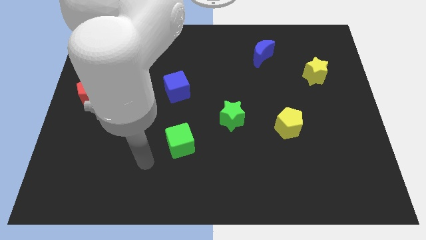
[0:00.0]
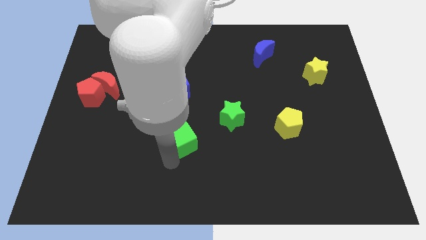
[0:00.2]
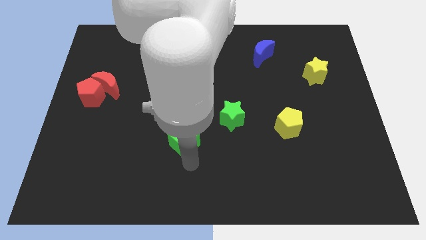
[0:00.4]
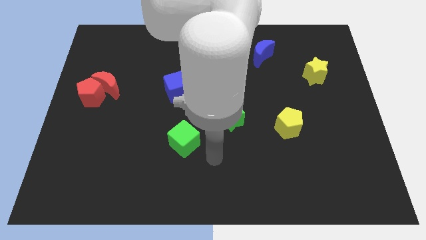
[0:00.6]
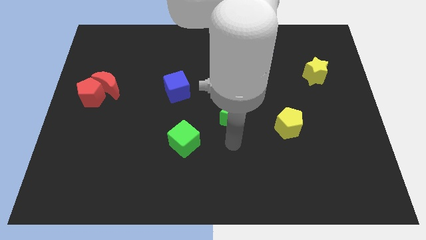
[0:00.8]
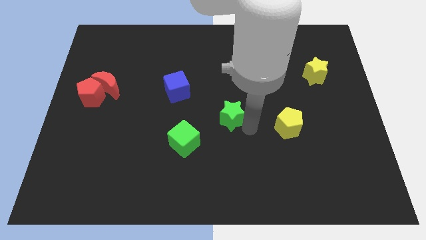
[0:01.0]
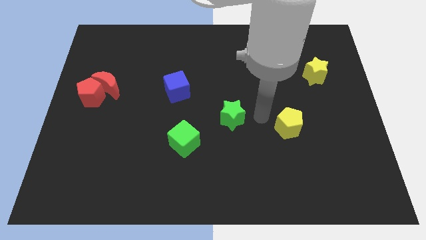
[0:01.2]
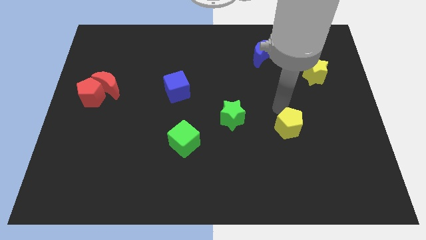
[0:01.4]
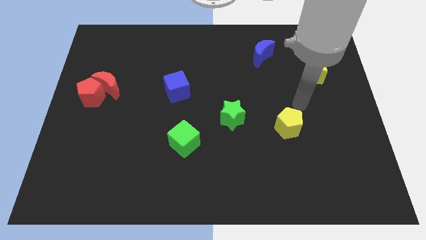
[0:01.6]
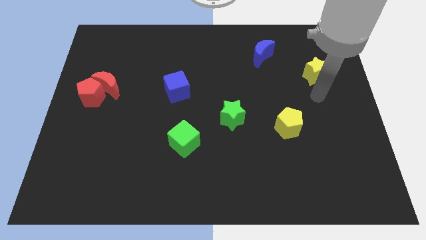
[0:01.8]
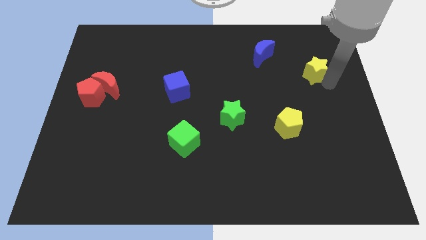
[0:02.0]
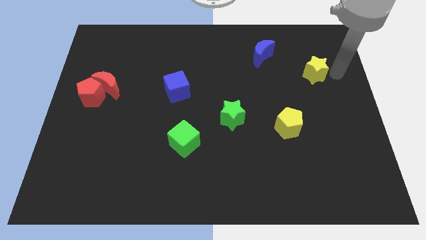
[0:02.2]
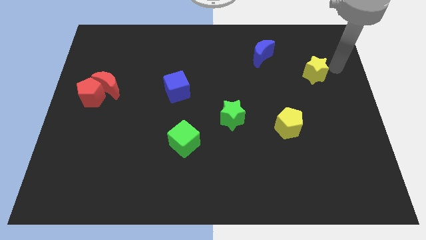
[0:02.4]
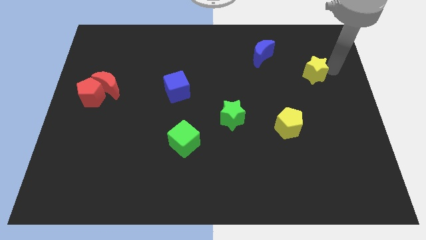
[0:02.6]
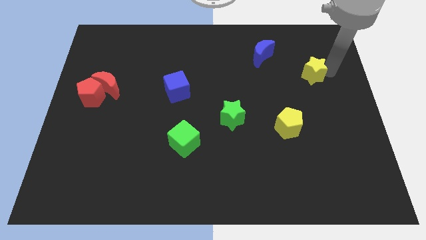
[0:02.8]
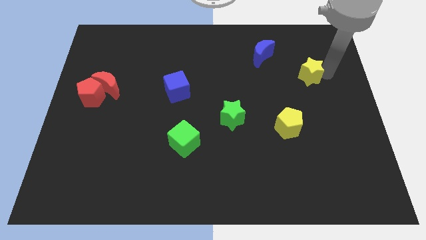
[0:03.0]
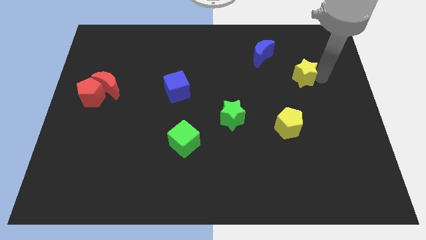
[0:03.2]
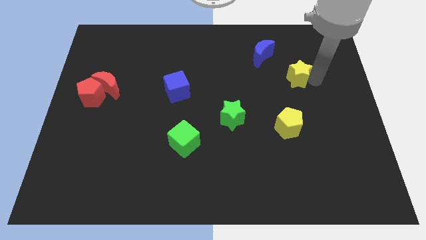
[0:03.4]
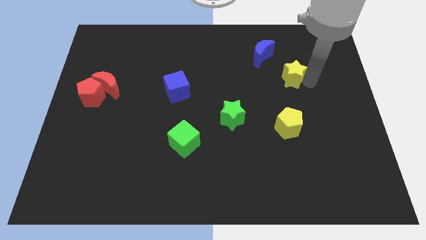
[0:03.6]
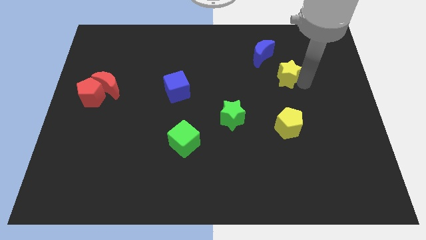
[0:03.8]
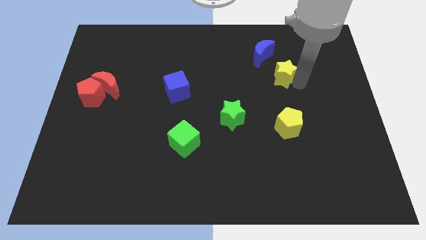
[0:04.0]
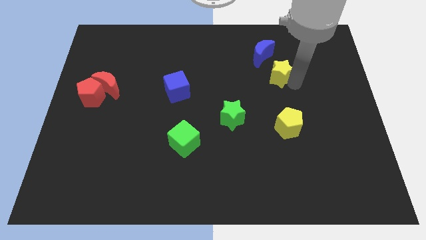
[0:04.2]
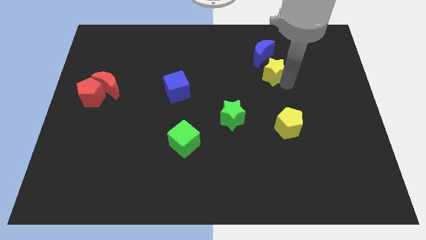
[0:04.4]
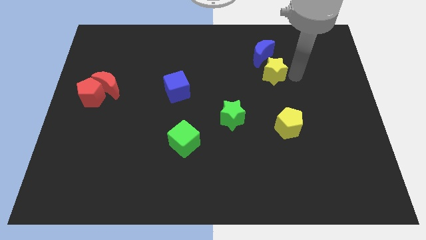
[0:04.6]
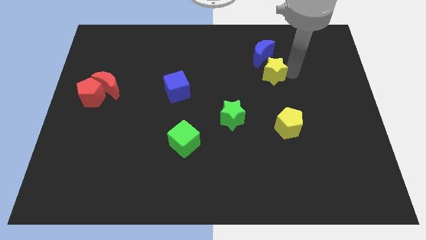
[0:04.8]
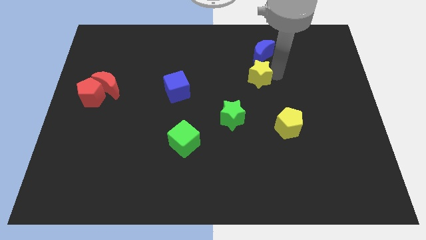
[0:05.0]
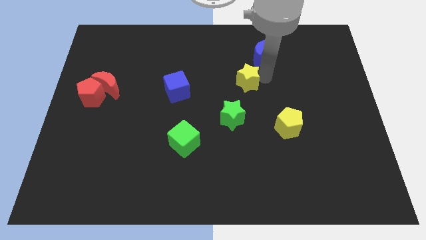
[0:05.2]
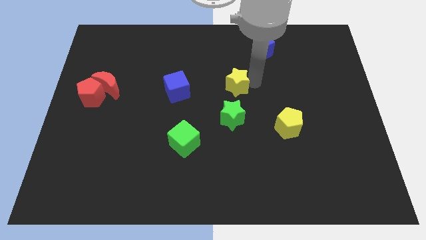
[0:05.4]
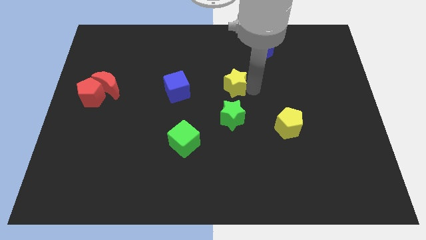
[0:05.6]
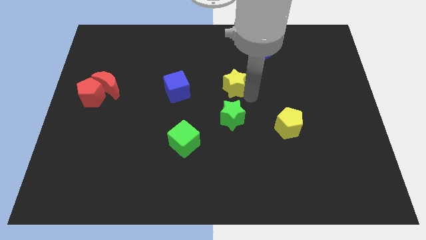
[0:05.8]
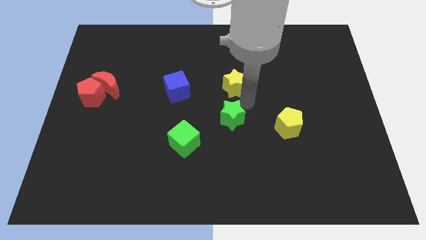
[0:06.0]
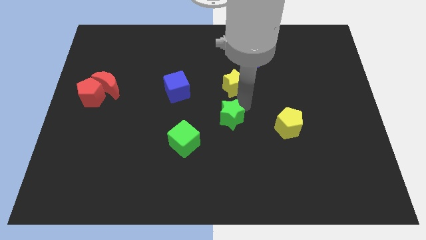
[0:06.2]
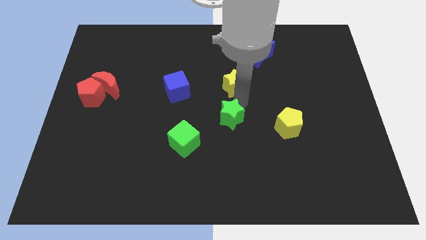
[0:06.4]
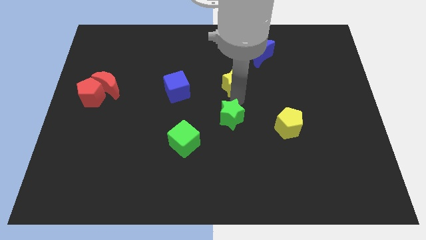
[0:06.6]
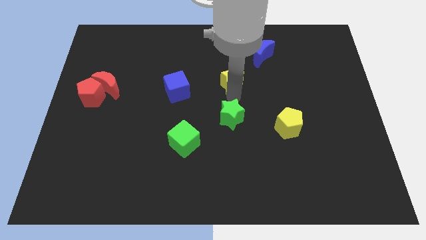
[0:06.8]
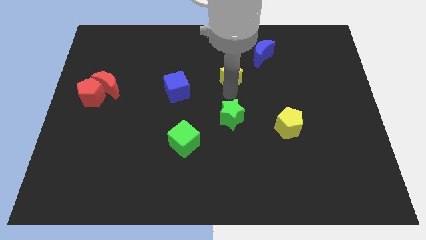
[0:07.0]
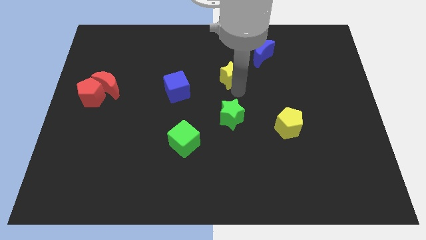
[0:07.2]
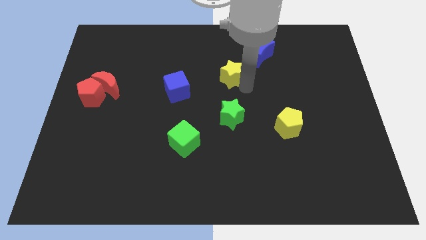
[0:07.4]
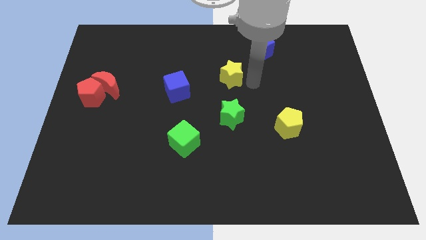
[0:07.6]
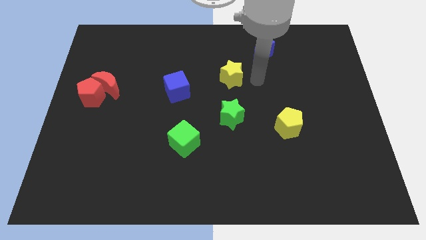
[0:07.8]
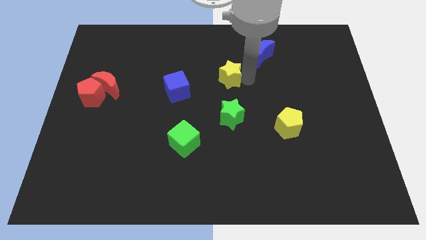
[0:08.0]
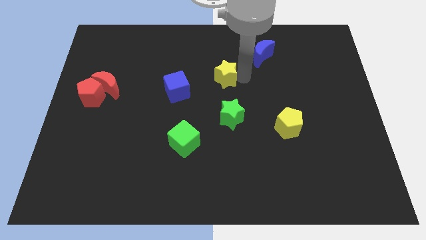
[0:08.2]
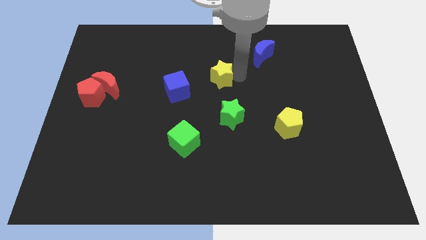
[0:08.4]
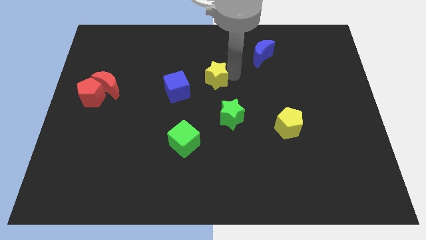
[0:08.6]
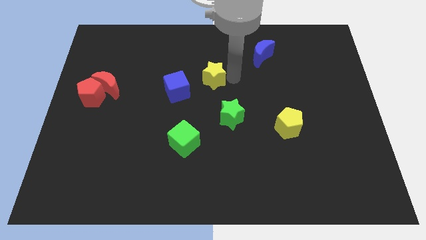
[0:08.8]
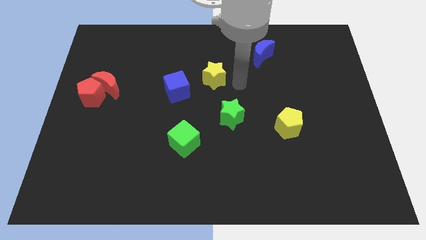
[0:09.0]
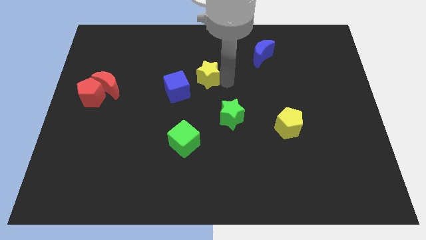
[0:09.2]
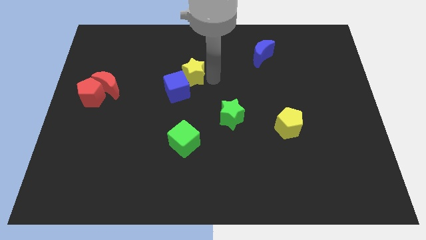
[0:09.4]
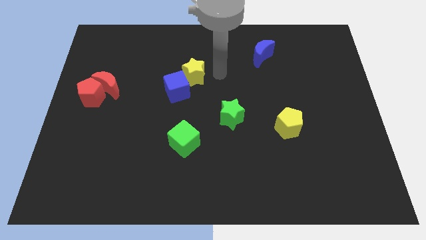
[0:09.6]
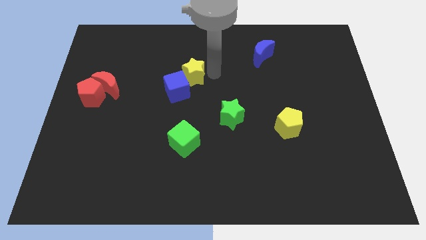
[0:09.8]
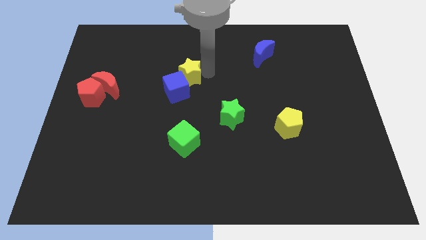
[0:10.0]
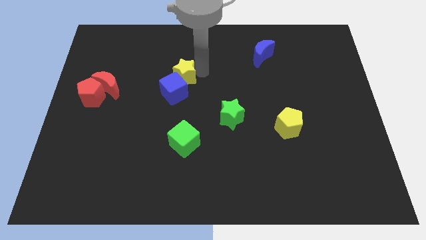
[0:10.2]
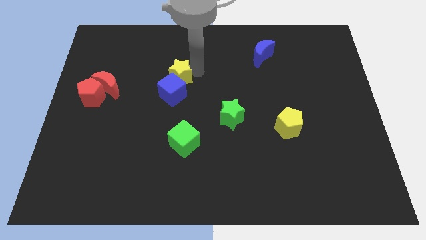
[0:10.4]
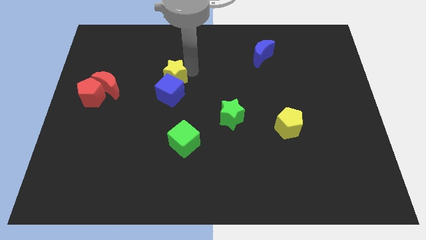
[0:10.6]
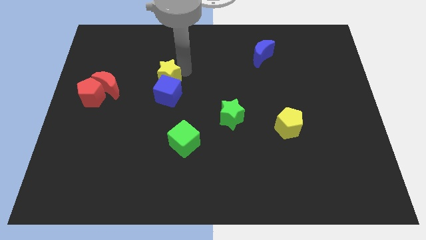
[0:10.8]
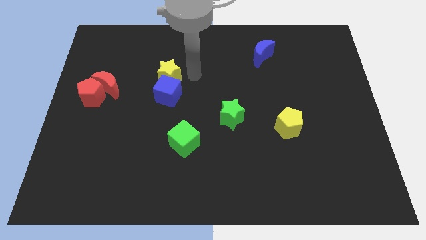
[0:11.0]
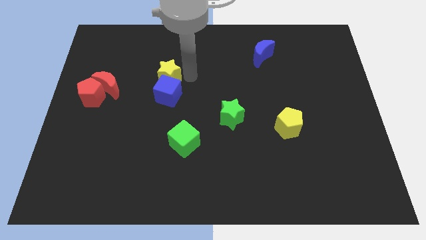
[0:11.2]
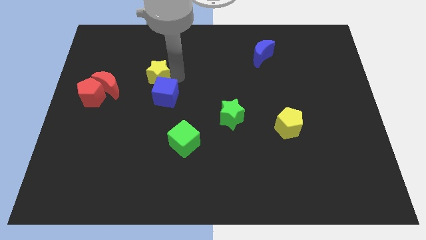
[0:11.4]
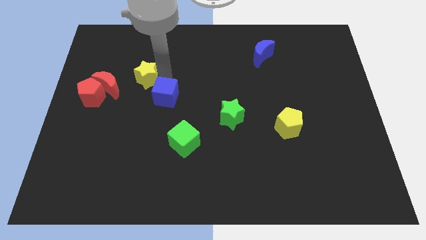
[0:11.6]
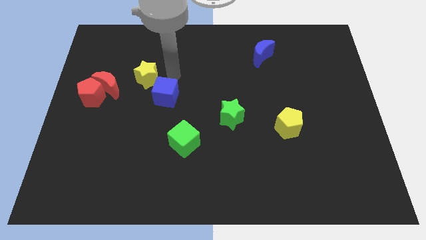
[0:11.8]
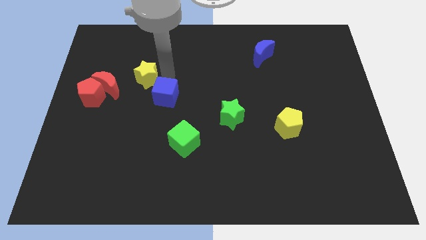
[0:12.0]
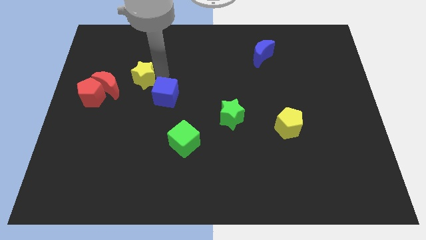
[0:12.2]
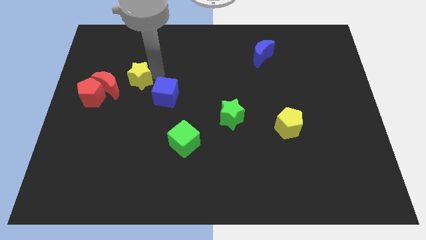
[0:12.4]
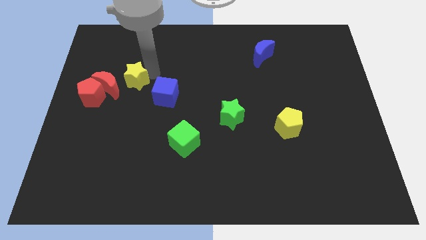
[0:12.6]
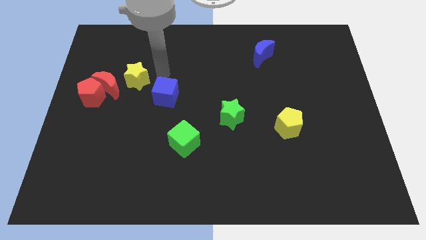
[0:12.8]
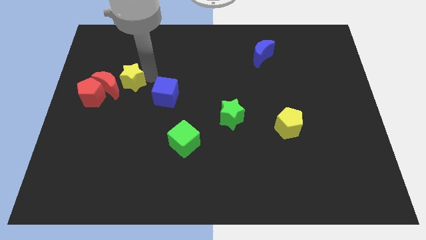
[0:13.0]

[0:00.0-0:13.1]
put the yellow star to the red moon
